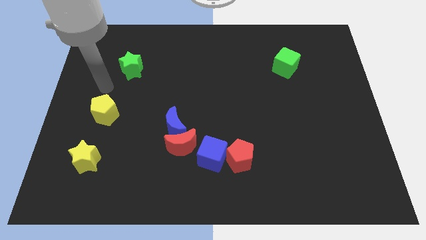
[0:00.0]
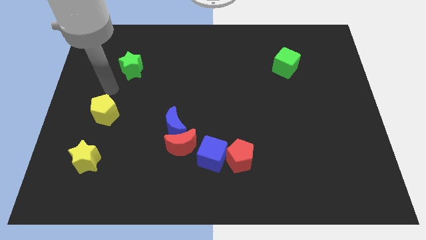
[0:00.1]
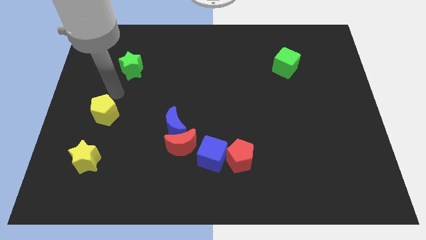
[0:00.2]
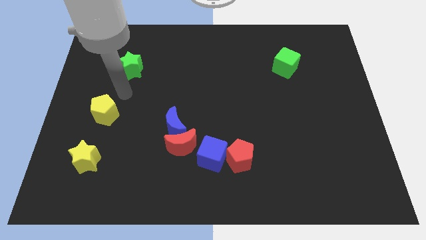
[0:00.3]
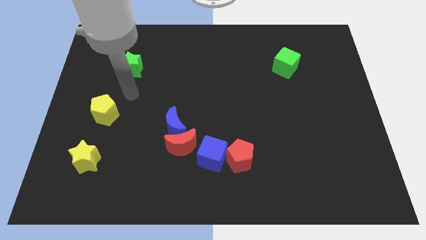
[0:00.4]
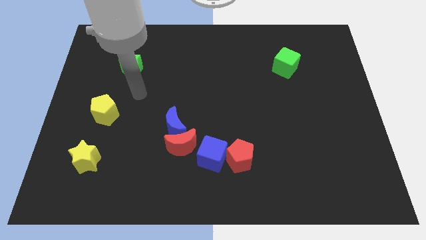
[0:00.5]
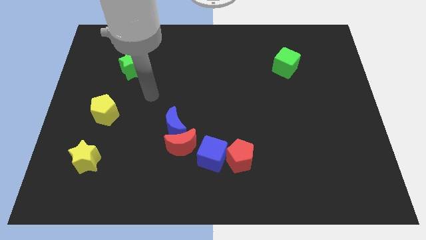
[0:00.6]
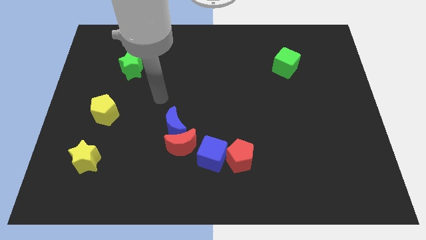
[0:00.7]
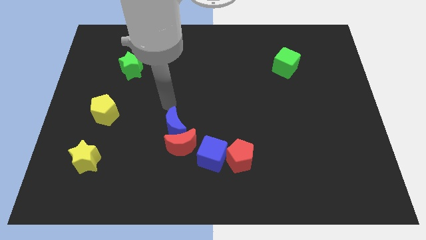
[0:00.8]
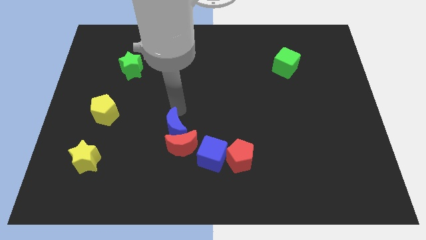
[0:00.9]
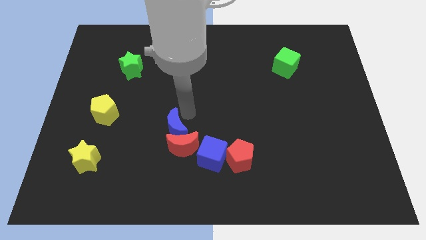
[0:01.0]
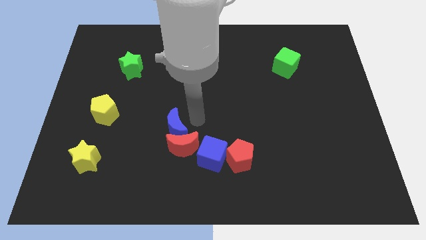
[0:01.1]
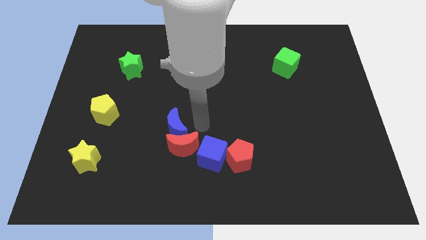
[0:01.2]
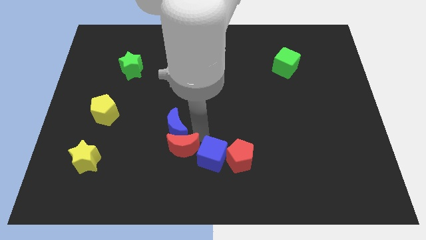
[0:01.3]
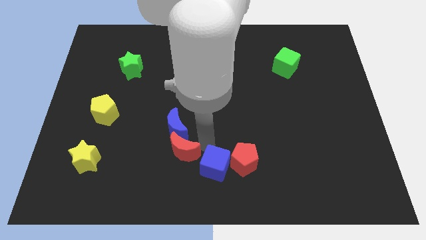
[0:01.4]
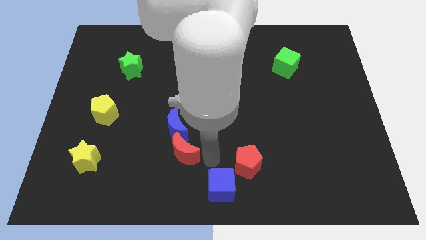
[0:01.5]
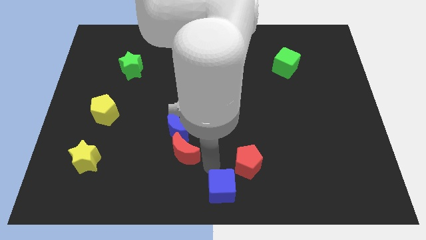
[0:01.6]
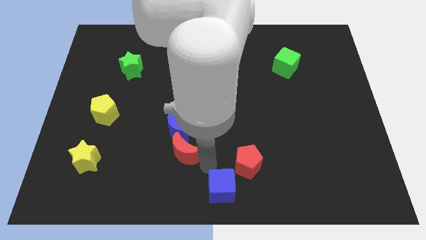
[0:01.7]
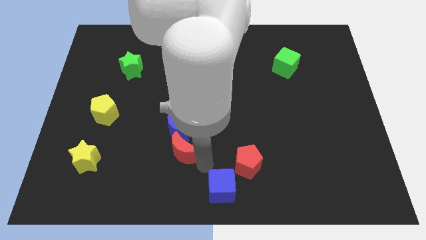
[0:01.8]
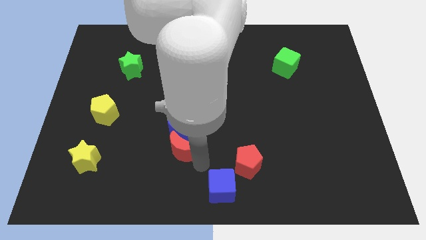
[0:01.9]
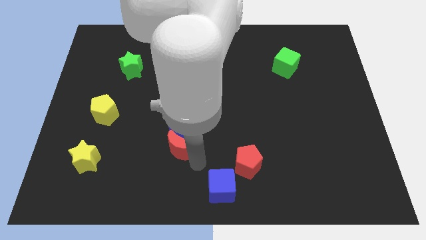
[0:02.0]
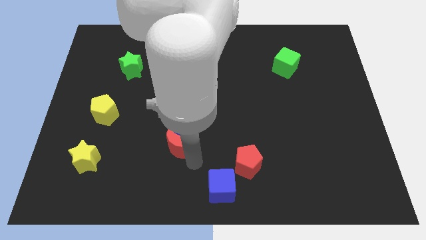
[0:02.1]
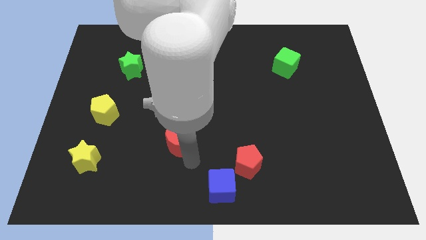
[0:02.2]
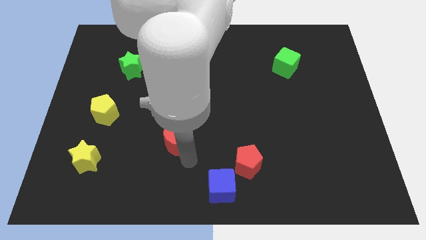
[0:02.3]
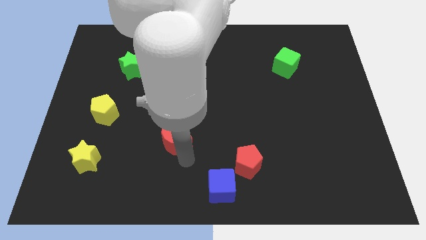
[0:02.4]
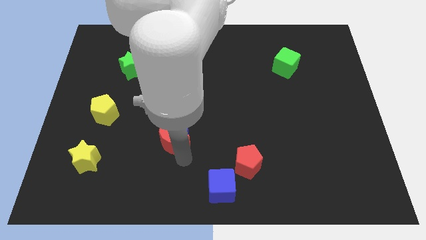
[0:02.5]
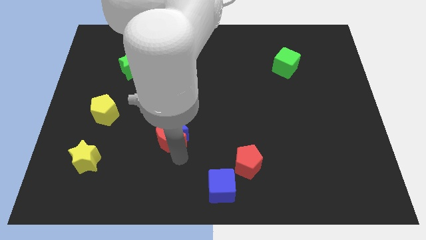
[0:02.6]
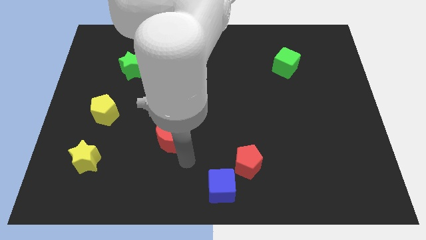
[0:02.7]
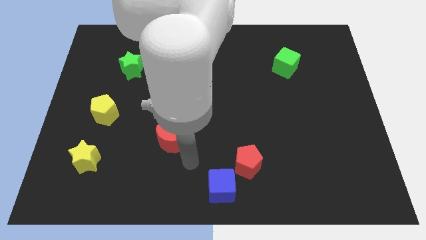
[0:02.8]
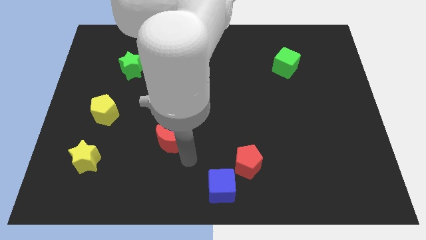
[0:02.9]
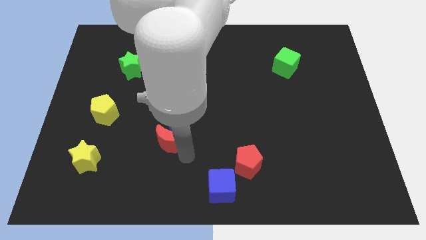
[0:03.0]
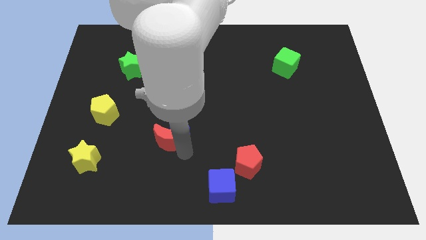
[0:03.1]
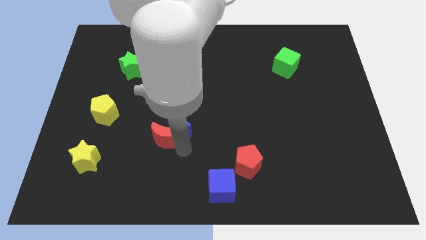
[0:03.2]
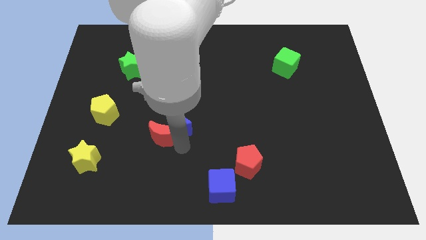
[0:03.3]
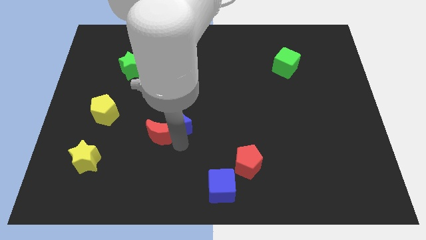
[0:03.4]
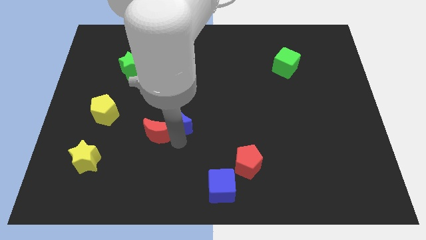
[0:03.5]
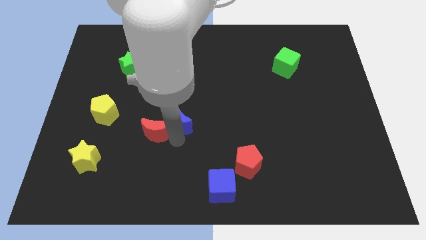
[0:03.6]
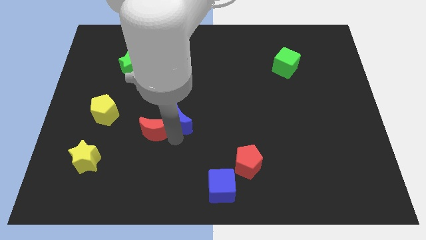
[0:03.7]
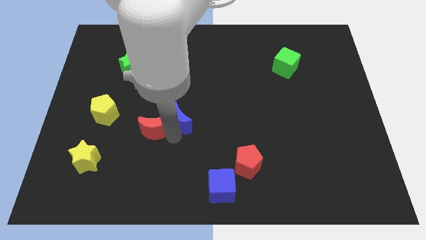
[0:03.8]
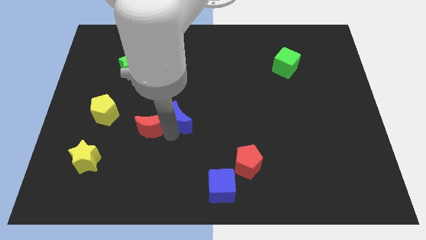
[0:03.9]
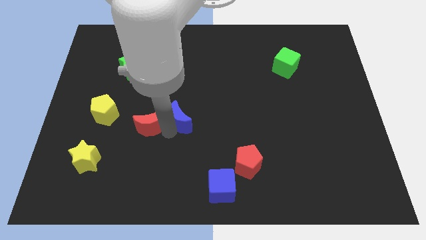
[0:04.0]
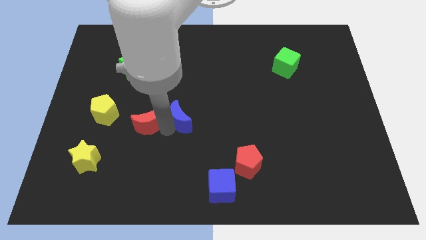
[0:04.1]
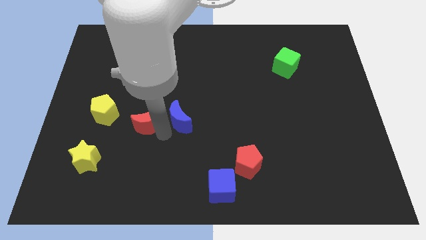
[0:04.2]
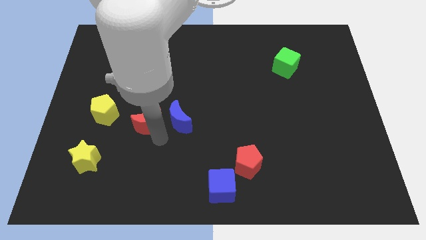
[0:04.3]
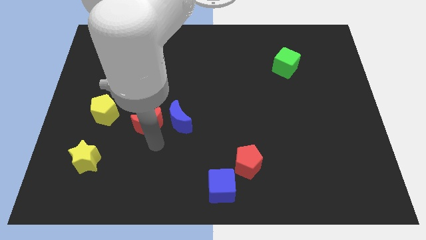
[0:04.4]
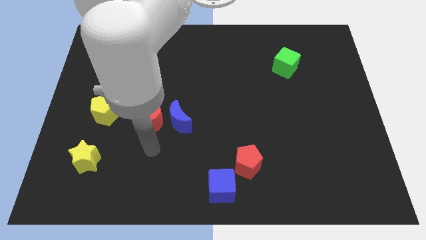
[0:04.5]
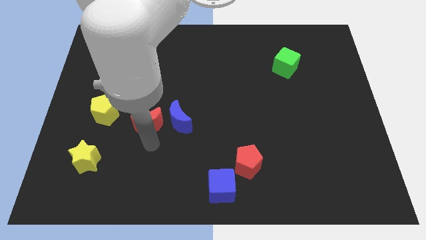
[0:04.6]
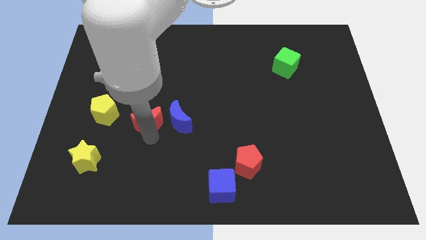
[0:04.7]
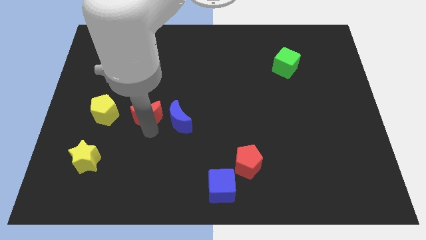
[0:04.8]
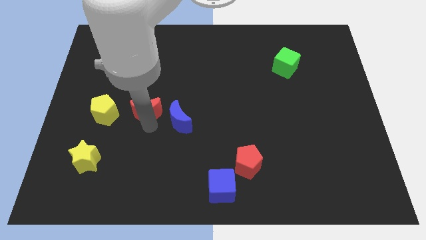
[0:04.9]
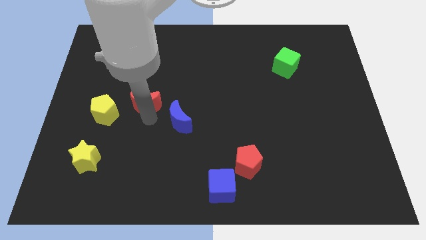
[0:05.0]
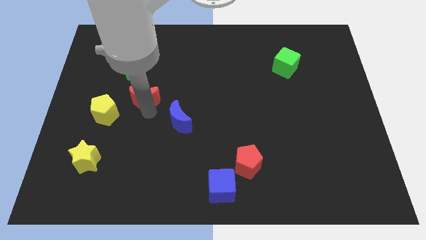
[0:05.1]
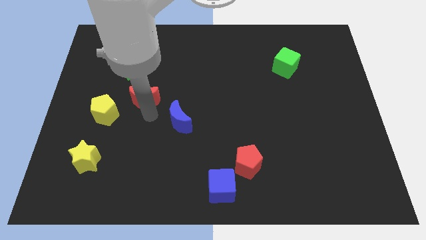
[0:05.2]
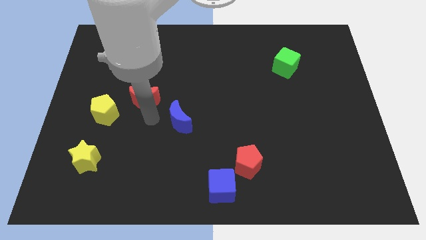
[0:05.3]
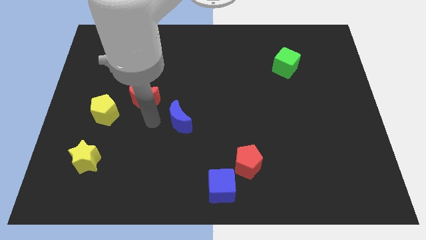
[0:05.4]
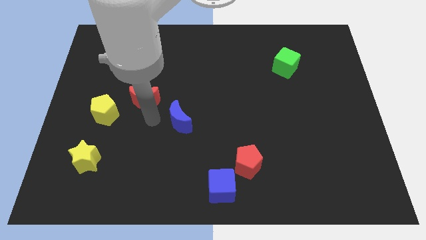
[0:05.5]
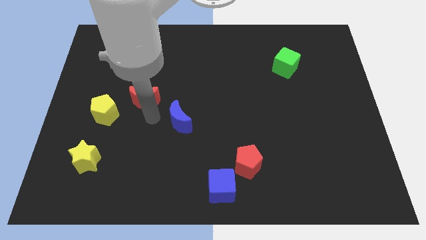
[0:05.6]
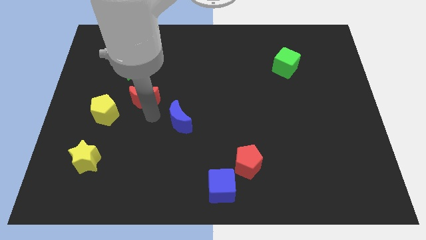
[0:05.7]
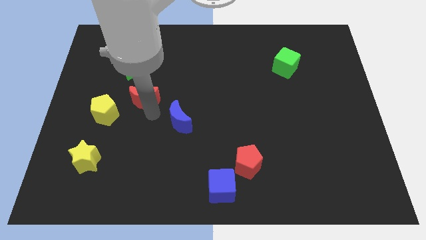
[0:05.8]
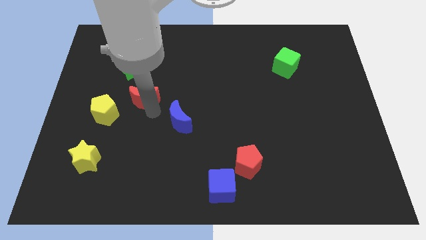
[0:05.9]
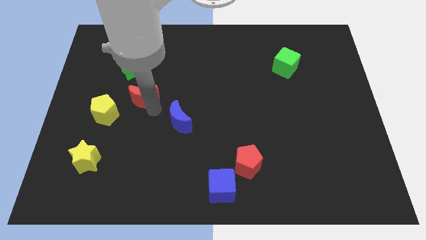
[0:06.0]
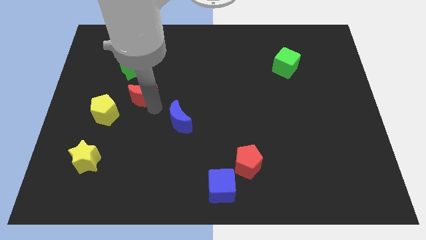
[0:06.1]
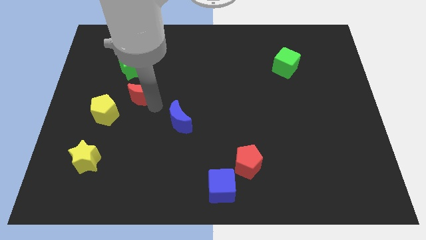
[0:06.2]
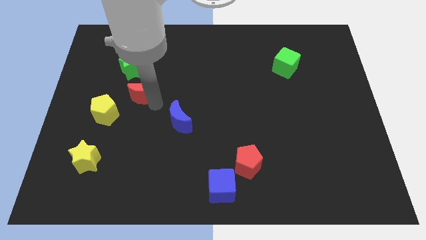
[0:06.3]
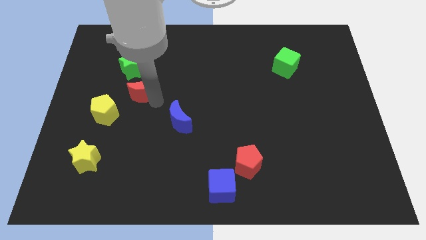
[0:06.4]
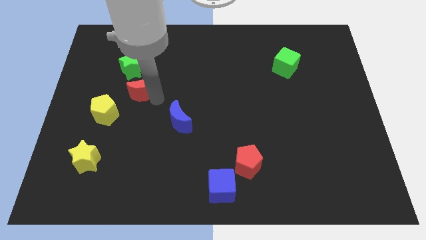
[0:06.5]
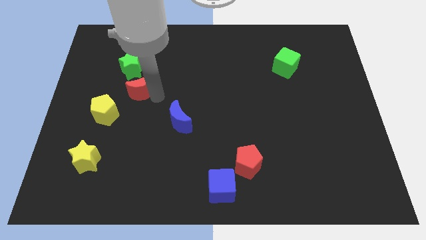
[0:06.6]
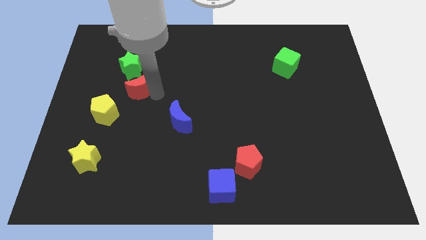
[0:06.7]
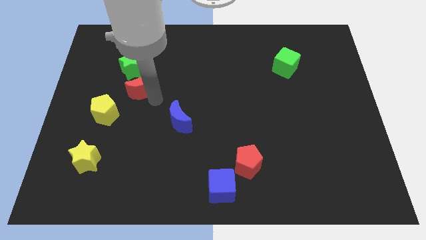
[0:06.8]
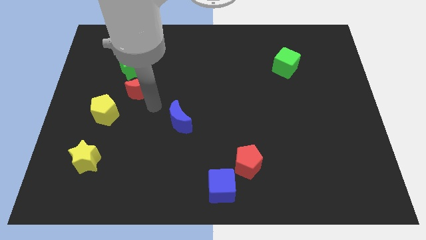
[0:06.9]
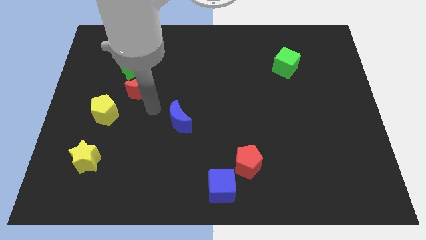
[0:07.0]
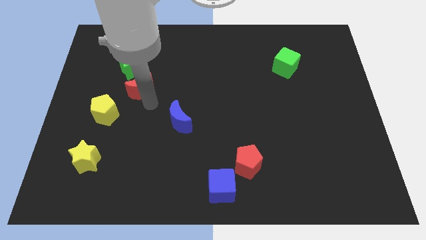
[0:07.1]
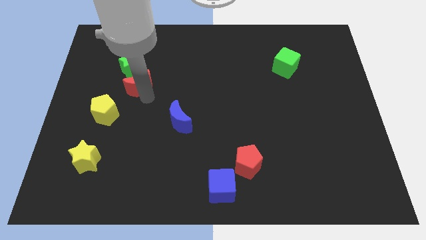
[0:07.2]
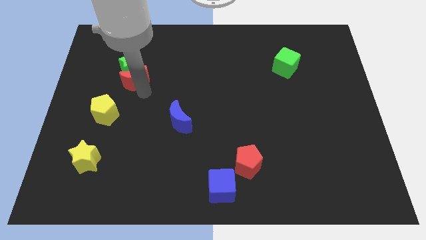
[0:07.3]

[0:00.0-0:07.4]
put the red moon to the green star
